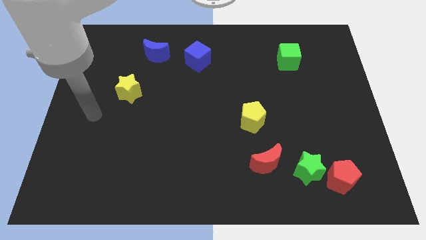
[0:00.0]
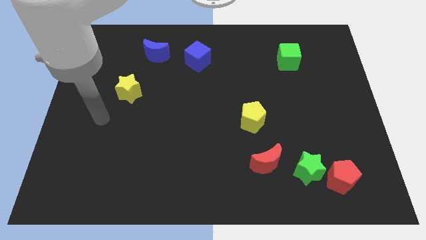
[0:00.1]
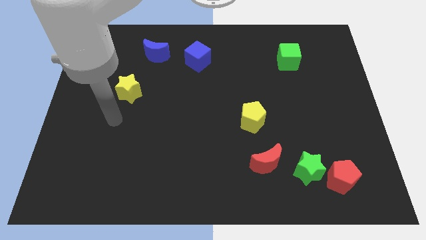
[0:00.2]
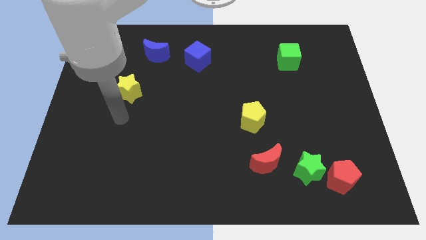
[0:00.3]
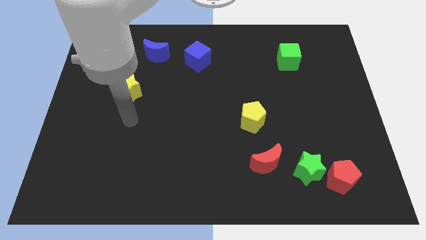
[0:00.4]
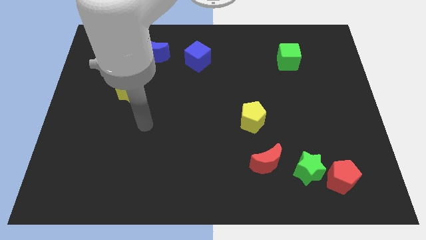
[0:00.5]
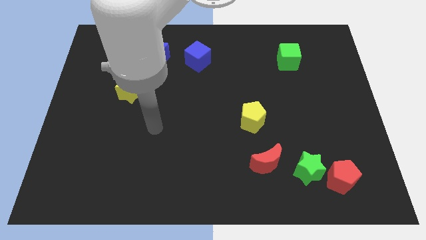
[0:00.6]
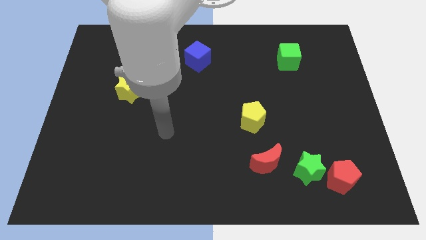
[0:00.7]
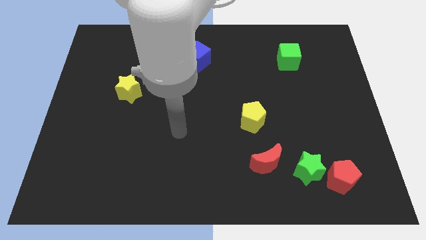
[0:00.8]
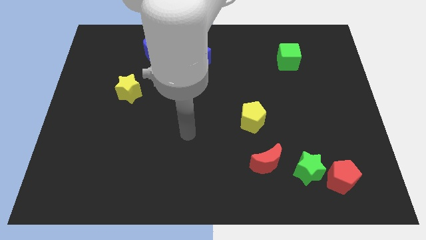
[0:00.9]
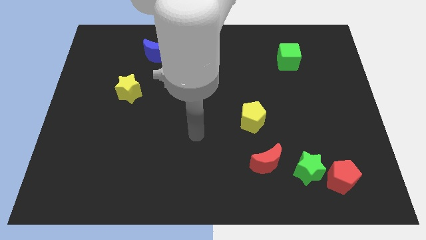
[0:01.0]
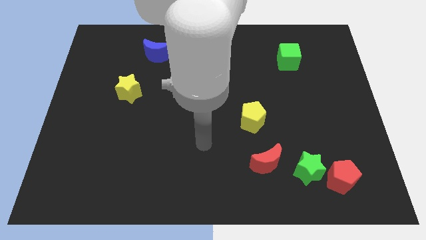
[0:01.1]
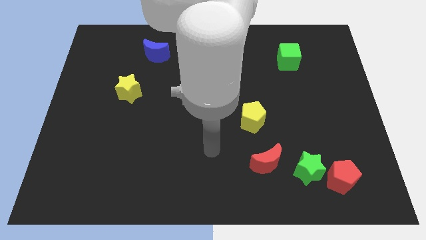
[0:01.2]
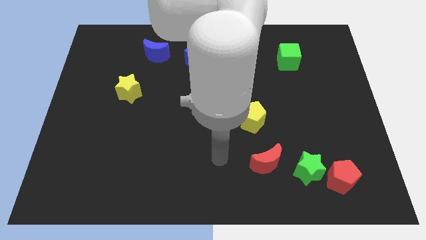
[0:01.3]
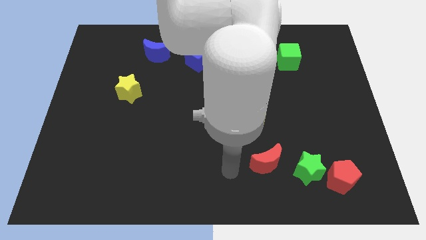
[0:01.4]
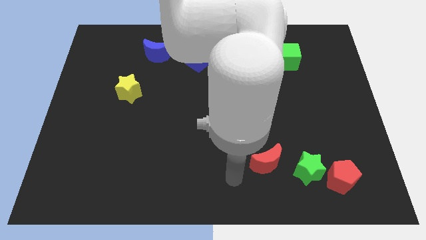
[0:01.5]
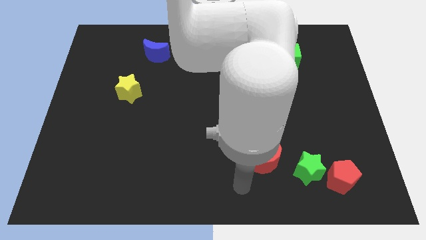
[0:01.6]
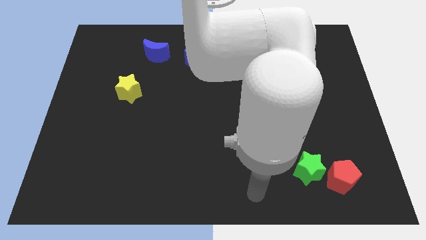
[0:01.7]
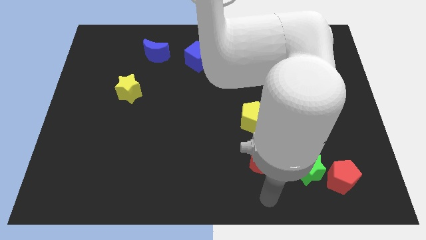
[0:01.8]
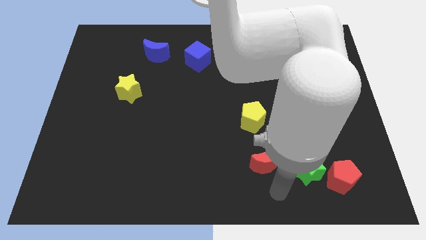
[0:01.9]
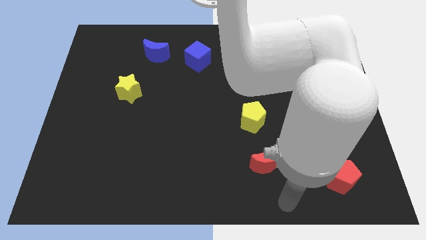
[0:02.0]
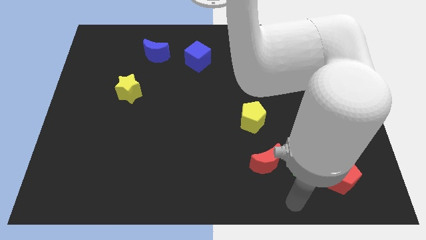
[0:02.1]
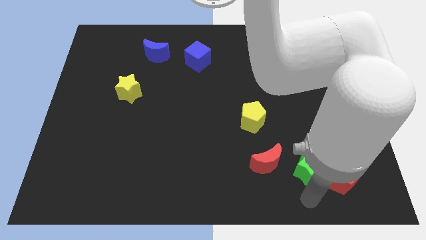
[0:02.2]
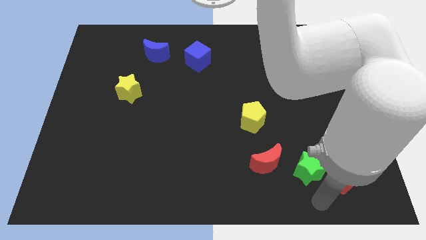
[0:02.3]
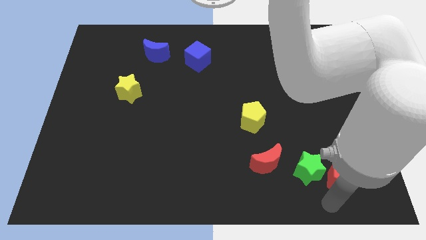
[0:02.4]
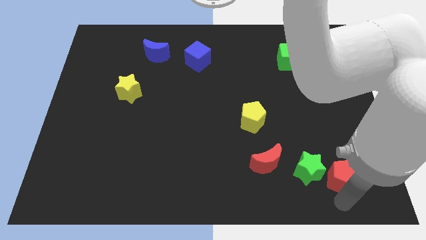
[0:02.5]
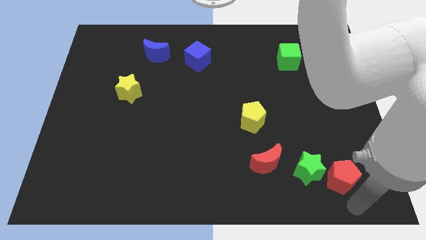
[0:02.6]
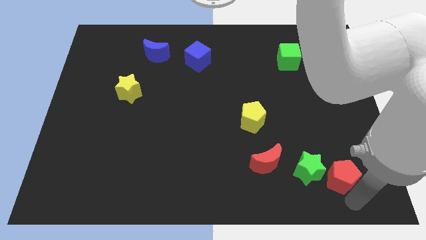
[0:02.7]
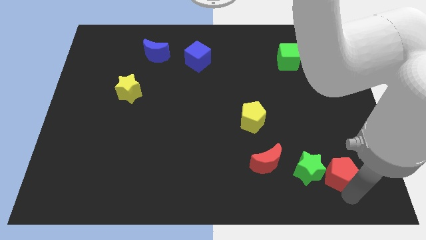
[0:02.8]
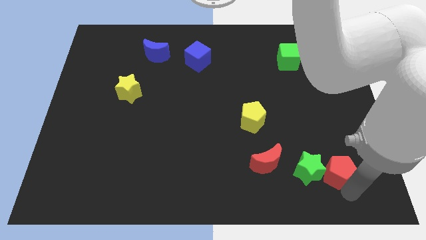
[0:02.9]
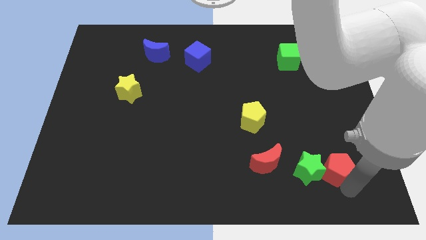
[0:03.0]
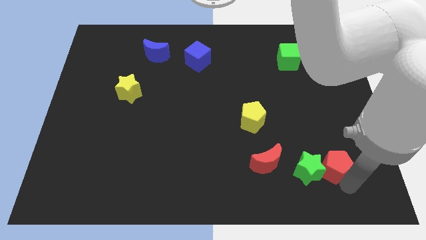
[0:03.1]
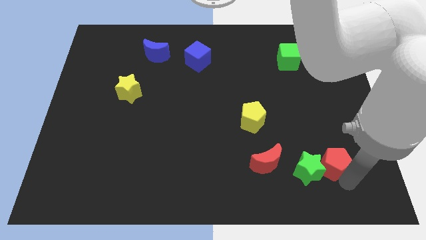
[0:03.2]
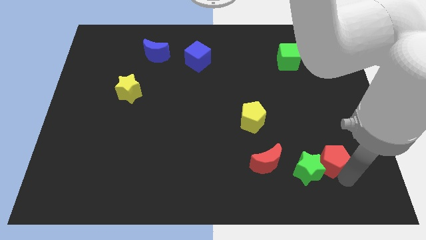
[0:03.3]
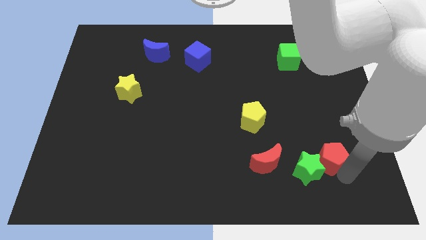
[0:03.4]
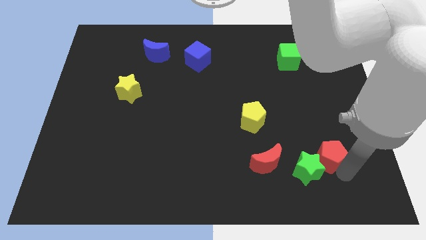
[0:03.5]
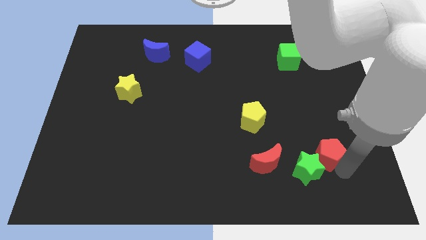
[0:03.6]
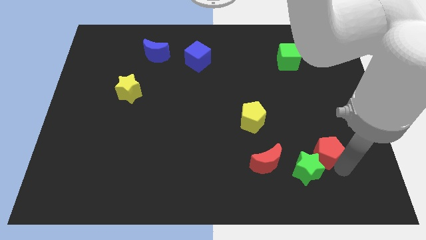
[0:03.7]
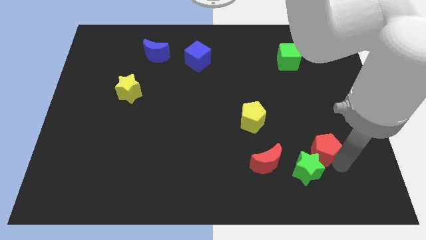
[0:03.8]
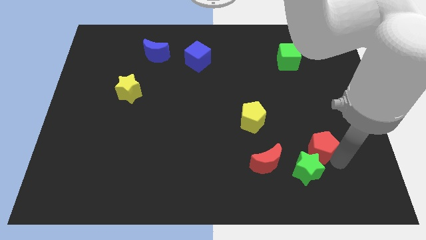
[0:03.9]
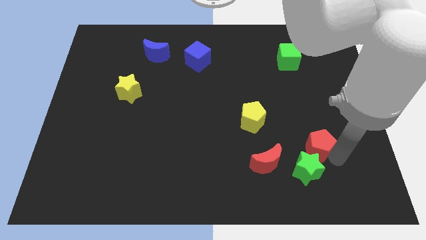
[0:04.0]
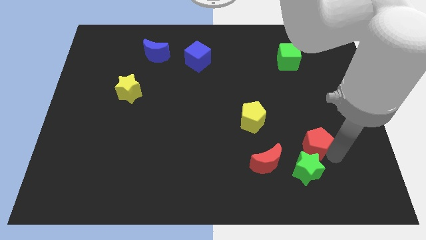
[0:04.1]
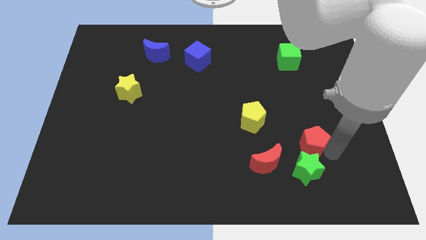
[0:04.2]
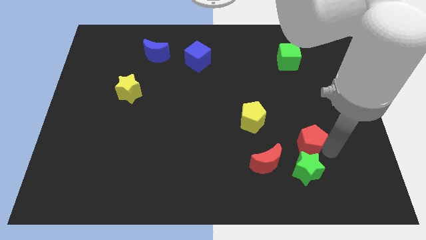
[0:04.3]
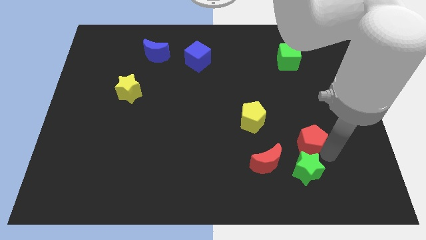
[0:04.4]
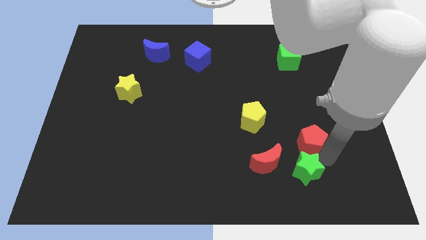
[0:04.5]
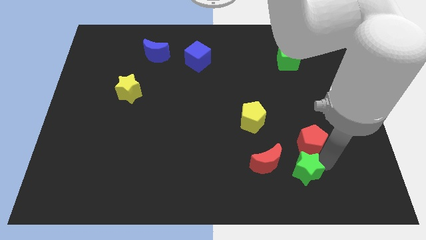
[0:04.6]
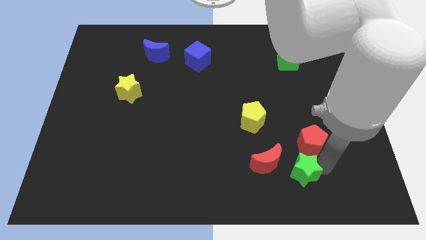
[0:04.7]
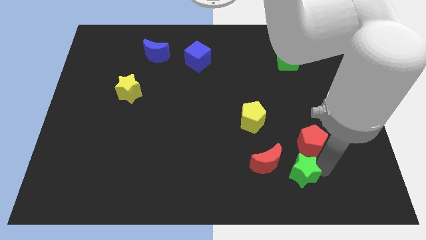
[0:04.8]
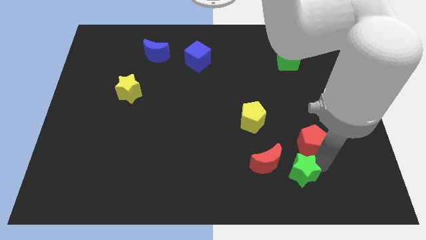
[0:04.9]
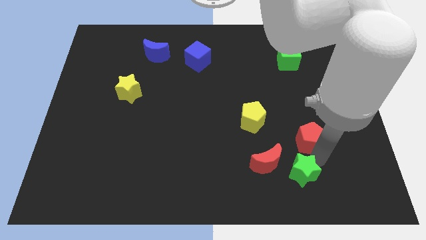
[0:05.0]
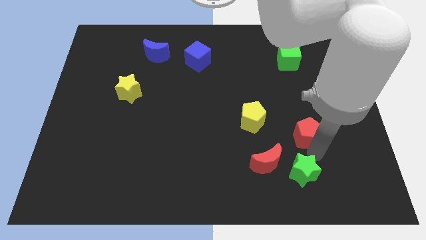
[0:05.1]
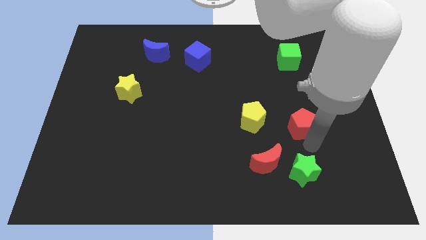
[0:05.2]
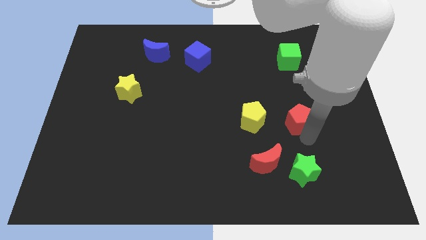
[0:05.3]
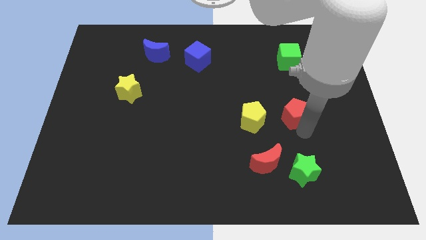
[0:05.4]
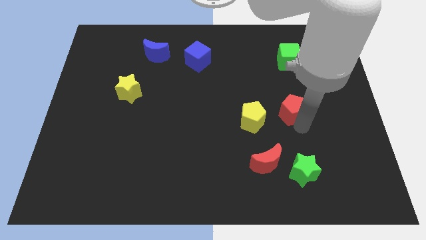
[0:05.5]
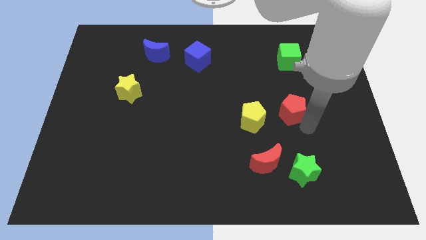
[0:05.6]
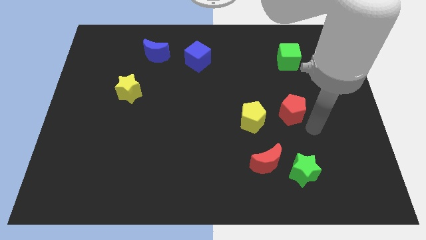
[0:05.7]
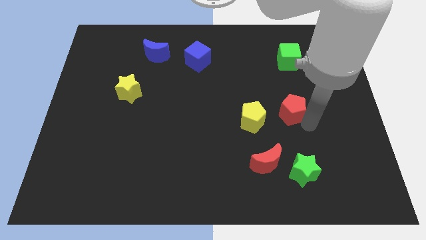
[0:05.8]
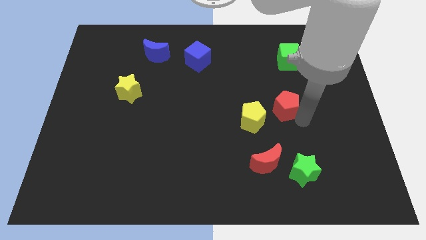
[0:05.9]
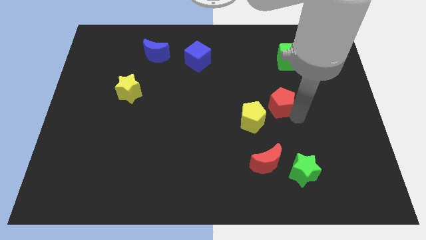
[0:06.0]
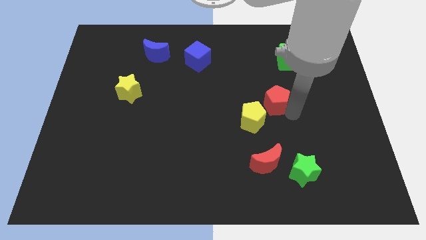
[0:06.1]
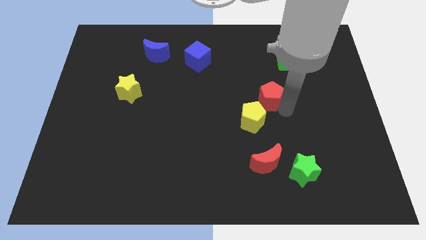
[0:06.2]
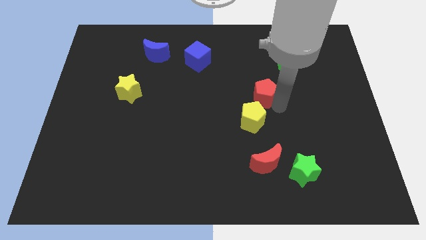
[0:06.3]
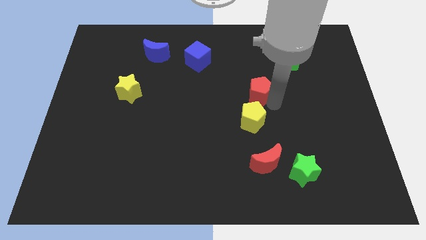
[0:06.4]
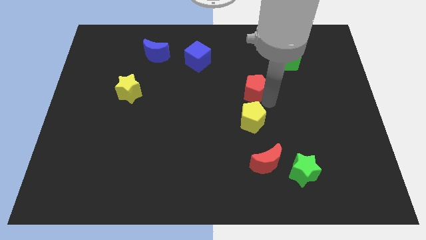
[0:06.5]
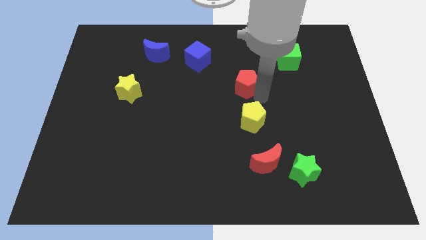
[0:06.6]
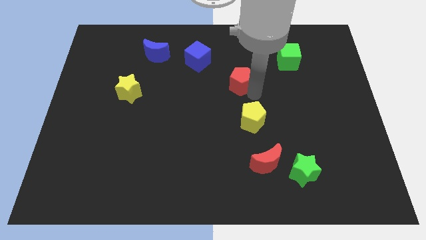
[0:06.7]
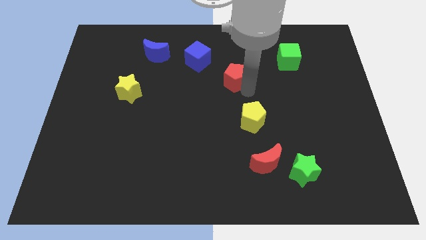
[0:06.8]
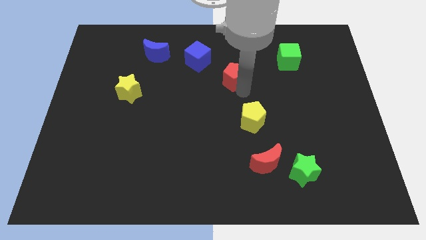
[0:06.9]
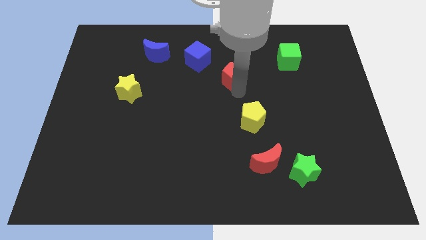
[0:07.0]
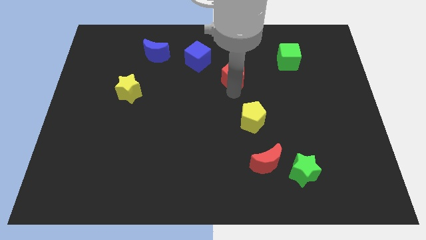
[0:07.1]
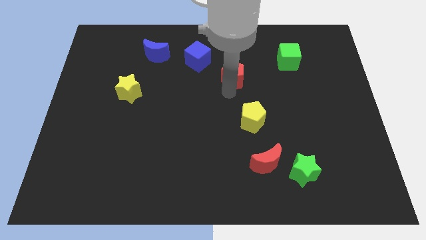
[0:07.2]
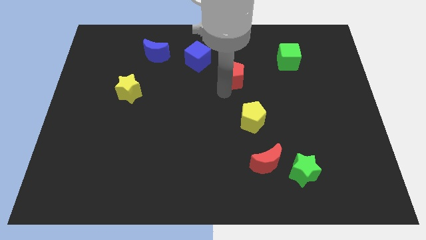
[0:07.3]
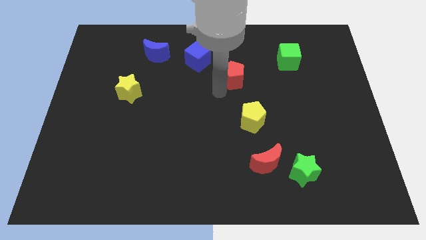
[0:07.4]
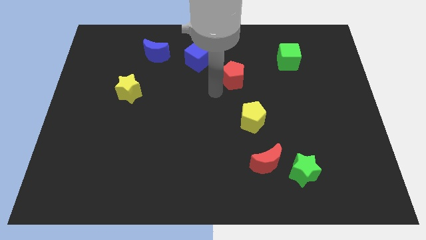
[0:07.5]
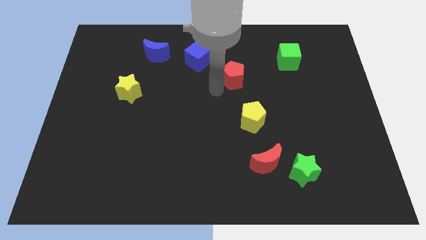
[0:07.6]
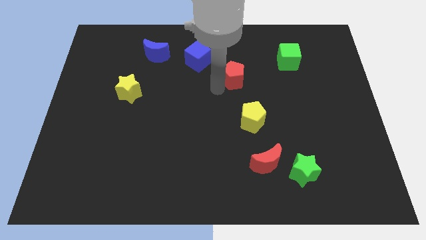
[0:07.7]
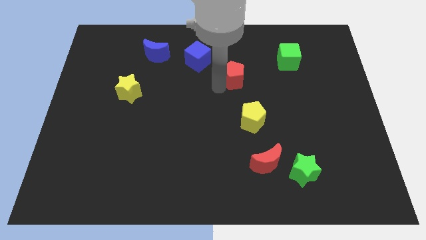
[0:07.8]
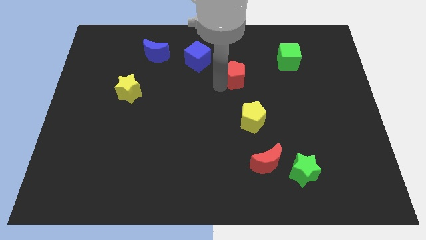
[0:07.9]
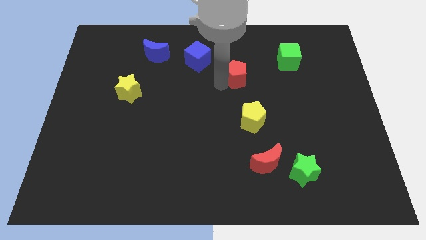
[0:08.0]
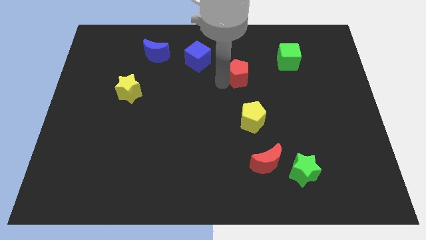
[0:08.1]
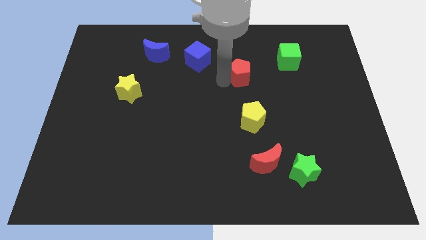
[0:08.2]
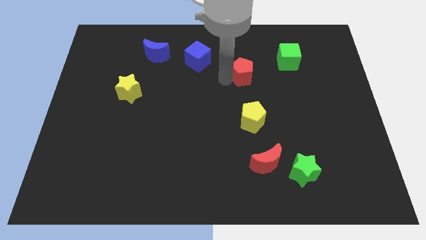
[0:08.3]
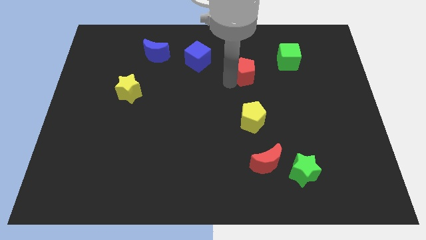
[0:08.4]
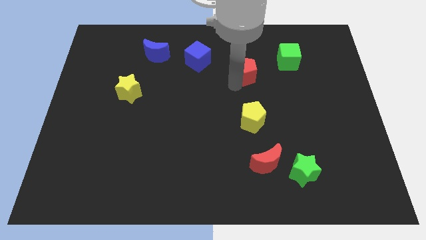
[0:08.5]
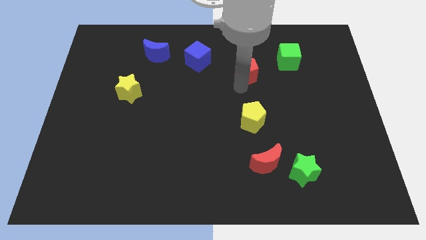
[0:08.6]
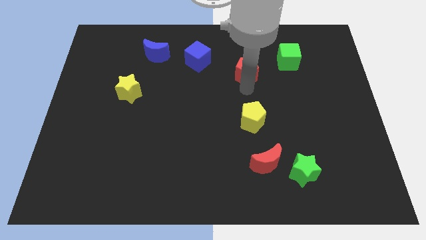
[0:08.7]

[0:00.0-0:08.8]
slide the red pentagon just right of the blue cube
